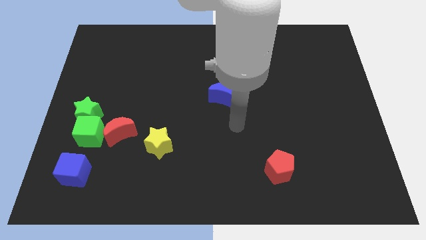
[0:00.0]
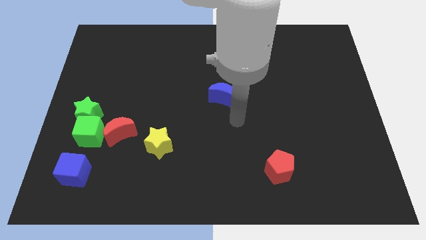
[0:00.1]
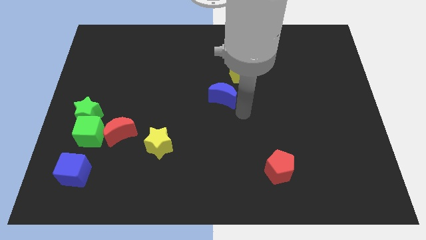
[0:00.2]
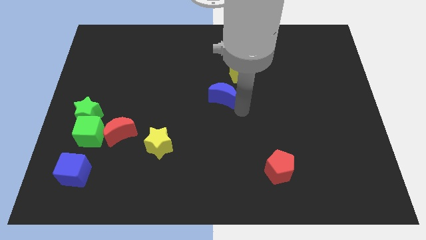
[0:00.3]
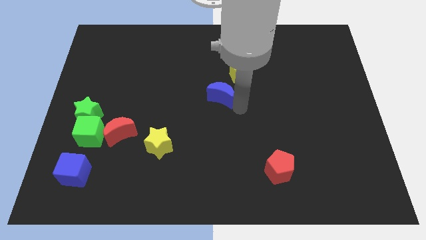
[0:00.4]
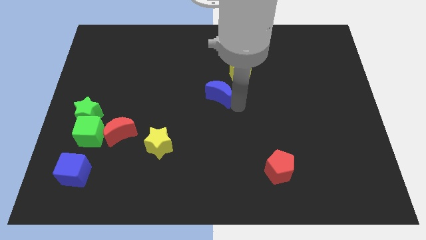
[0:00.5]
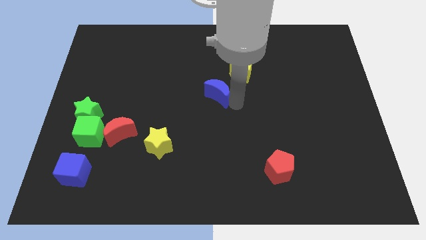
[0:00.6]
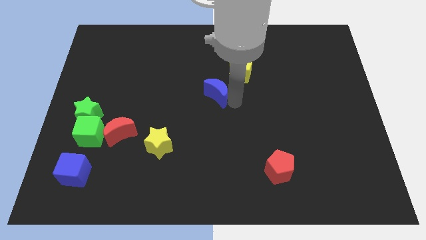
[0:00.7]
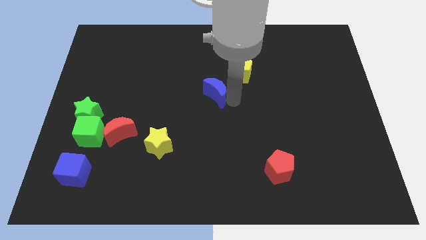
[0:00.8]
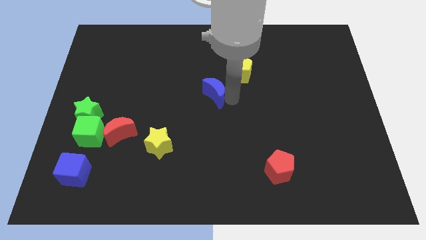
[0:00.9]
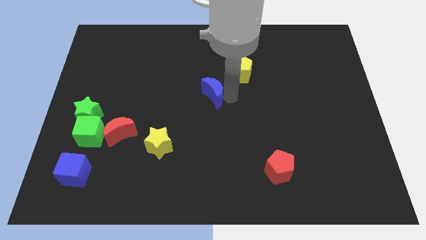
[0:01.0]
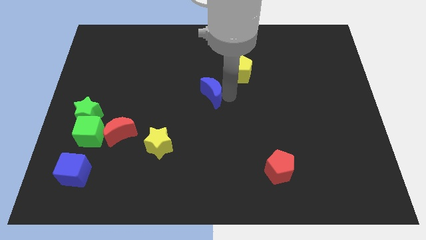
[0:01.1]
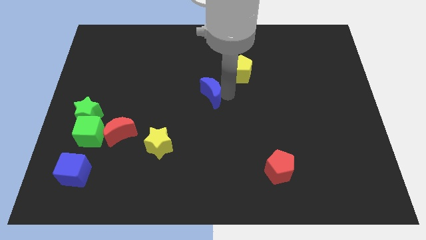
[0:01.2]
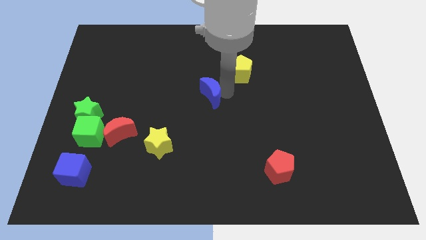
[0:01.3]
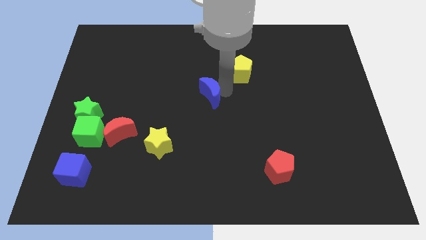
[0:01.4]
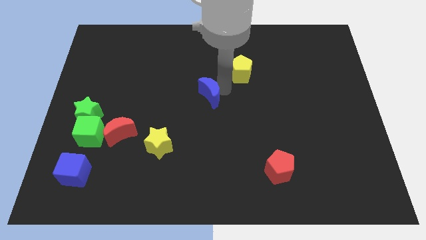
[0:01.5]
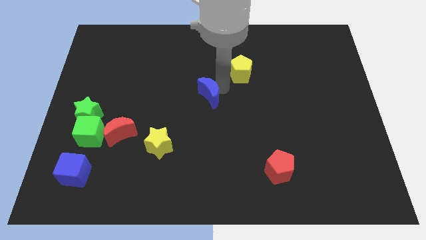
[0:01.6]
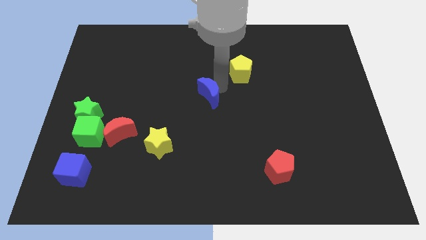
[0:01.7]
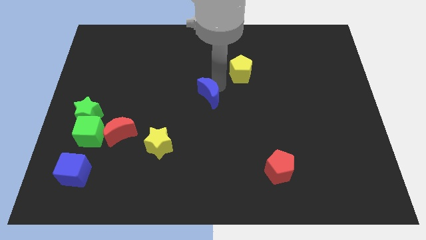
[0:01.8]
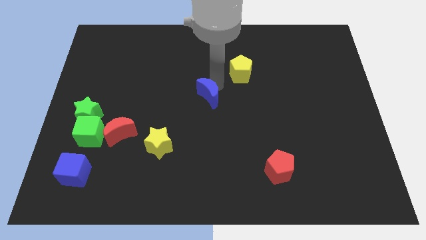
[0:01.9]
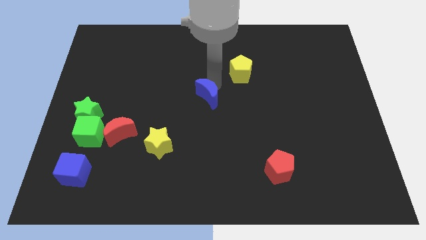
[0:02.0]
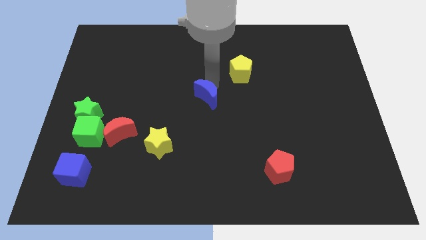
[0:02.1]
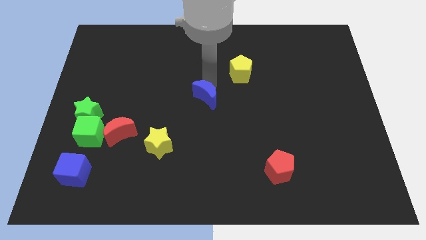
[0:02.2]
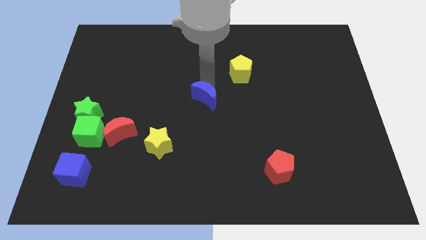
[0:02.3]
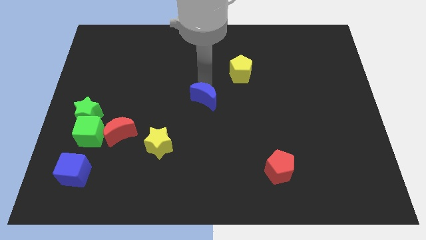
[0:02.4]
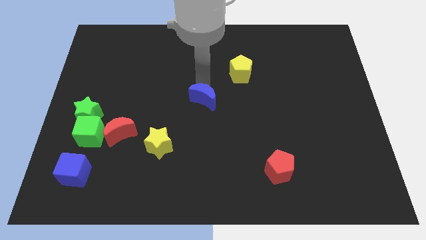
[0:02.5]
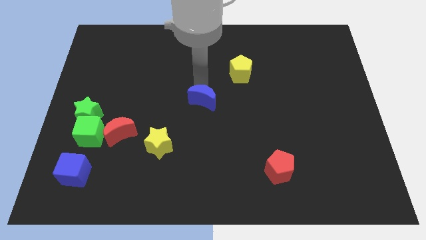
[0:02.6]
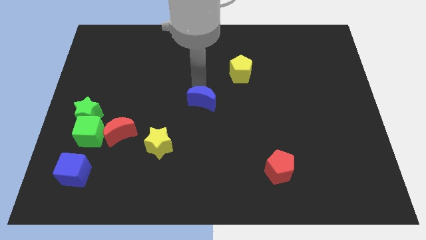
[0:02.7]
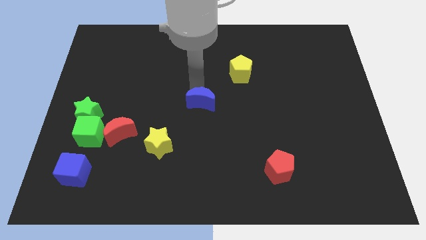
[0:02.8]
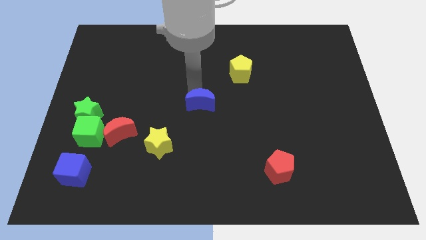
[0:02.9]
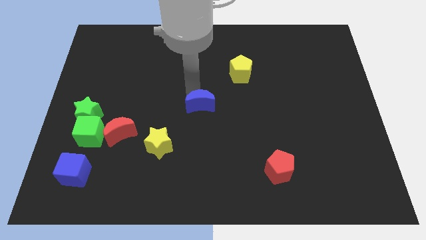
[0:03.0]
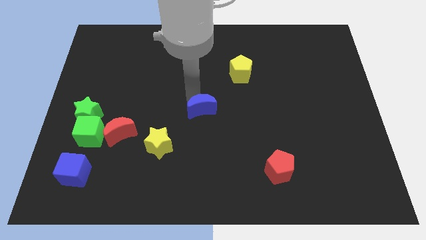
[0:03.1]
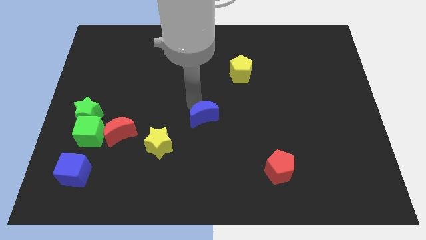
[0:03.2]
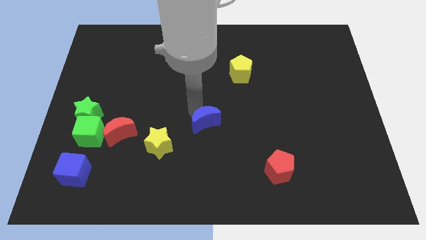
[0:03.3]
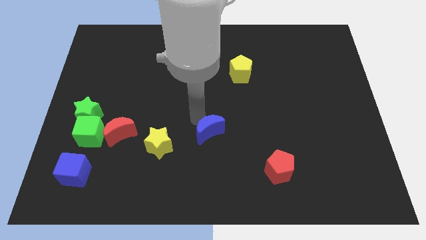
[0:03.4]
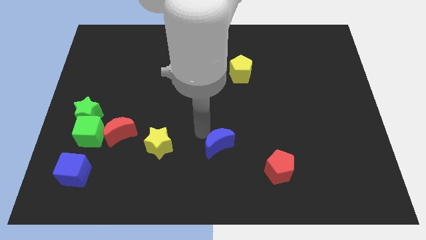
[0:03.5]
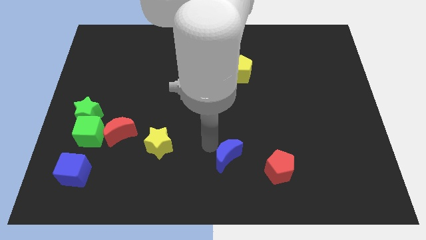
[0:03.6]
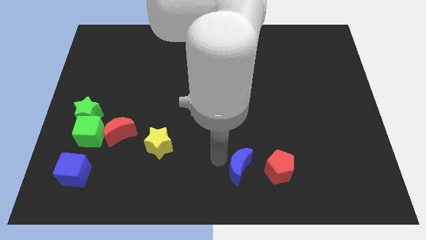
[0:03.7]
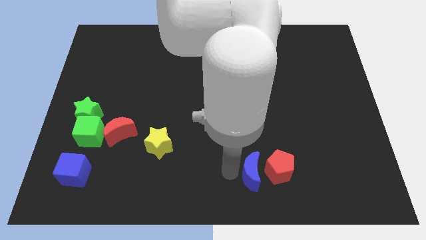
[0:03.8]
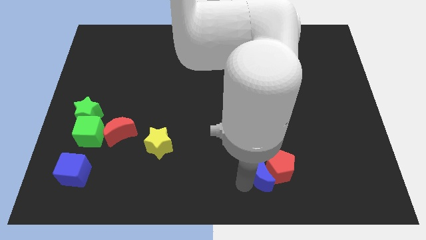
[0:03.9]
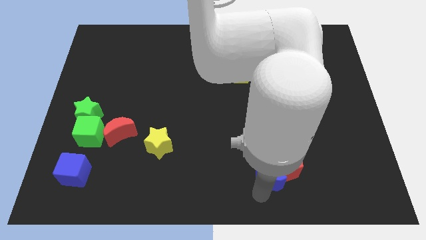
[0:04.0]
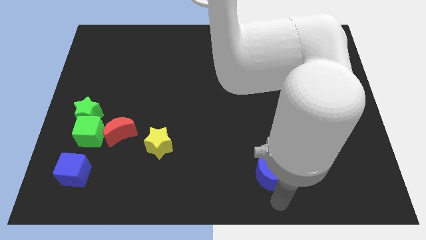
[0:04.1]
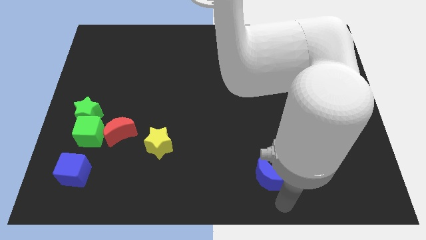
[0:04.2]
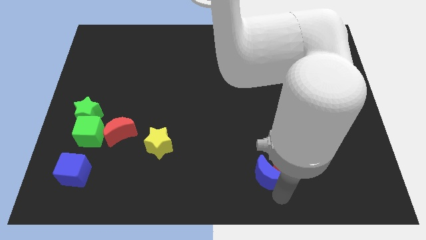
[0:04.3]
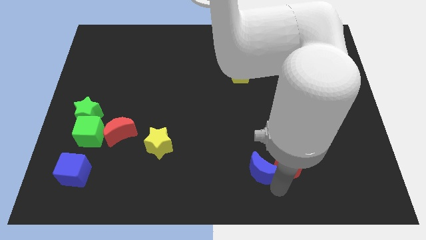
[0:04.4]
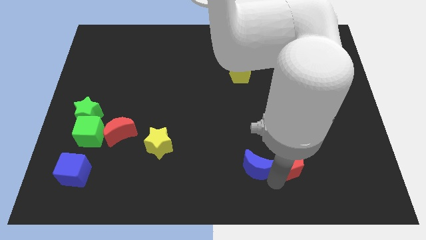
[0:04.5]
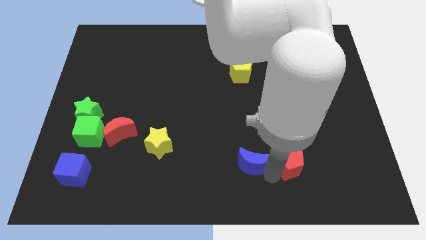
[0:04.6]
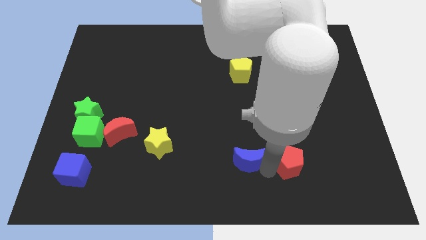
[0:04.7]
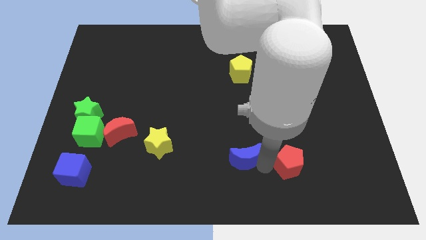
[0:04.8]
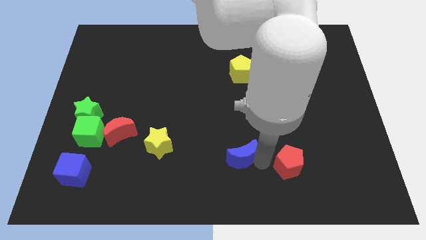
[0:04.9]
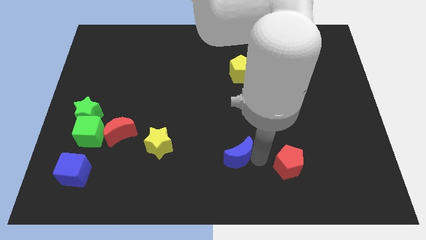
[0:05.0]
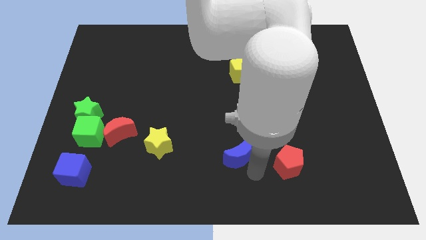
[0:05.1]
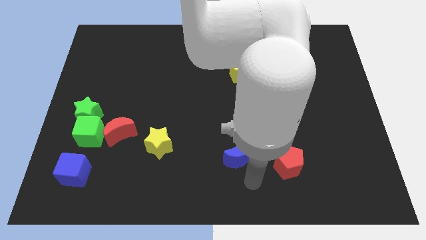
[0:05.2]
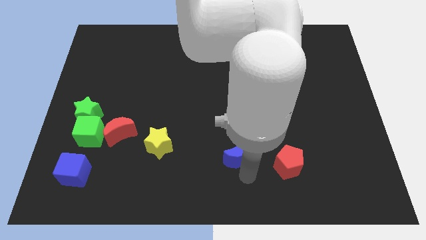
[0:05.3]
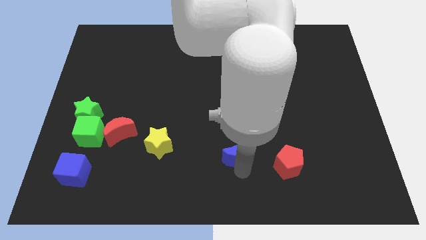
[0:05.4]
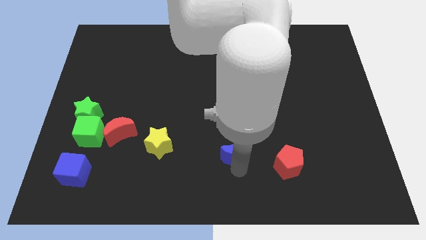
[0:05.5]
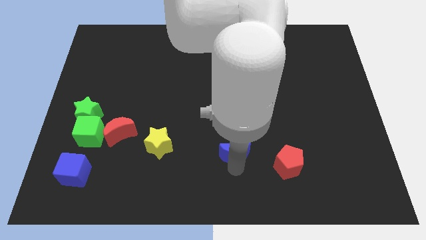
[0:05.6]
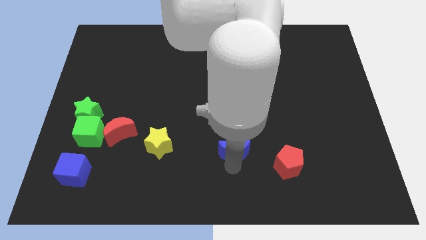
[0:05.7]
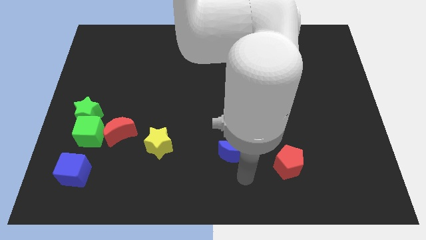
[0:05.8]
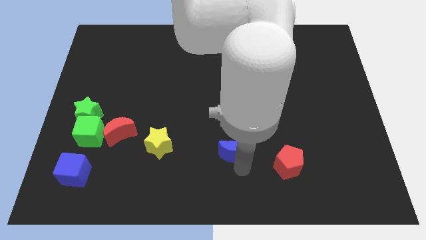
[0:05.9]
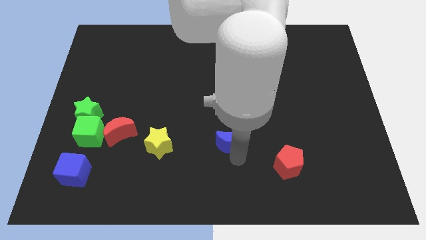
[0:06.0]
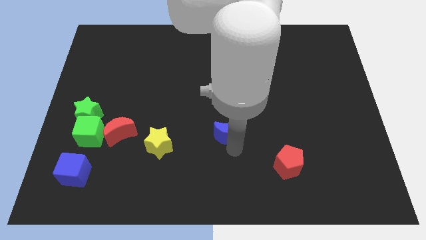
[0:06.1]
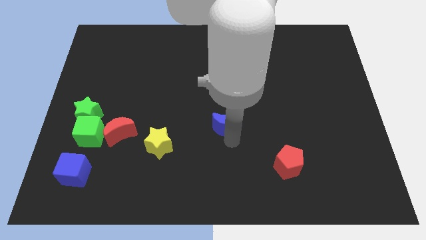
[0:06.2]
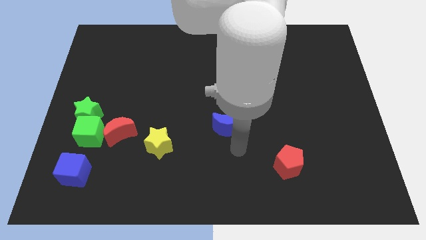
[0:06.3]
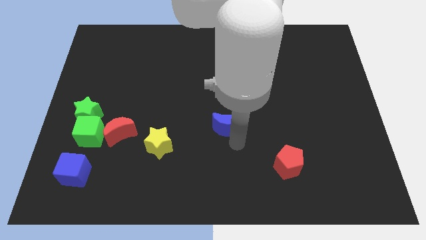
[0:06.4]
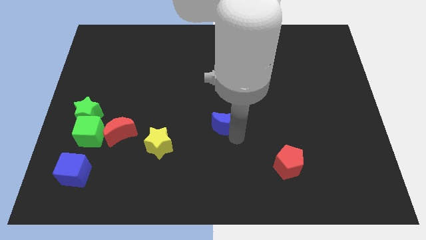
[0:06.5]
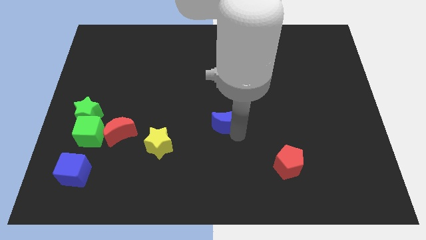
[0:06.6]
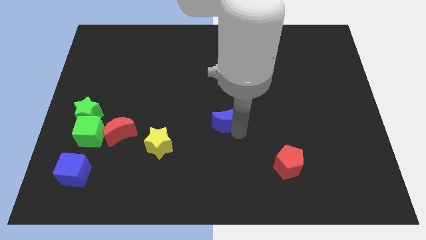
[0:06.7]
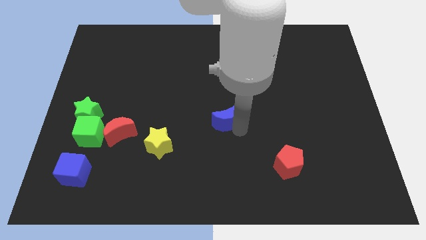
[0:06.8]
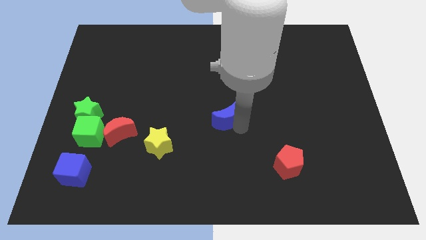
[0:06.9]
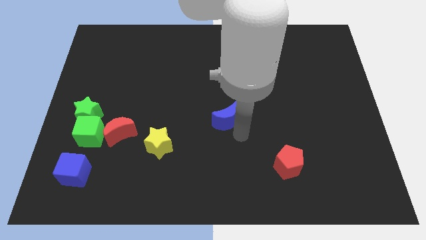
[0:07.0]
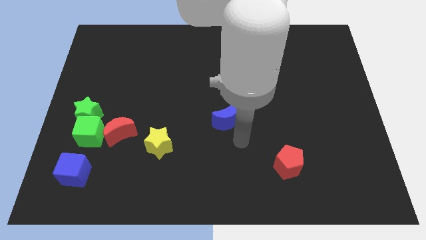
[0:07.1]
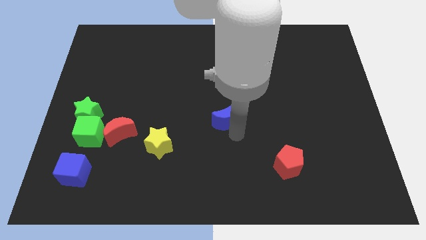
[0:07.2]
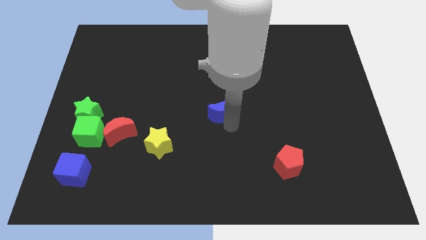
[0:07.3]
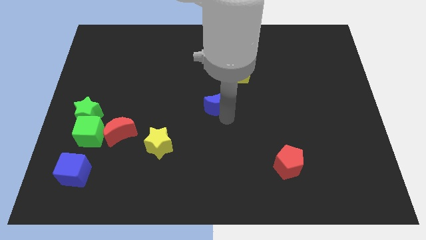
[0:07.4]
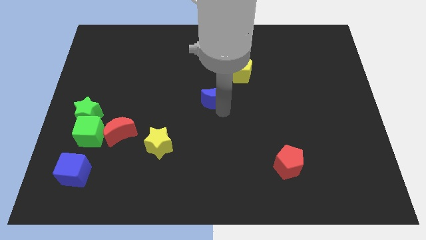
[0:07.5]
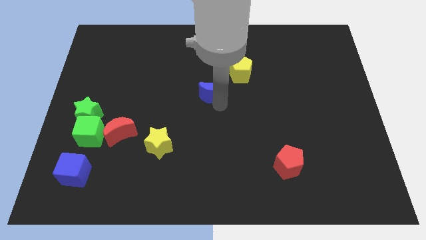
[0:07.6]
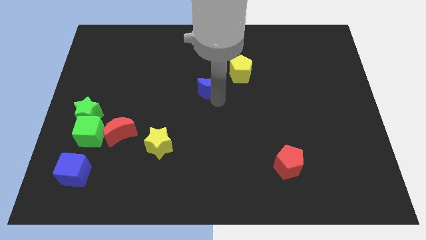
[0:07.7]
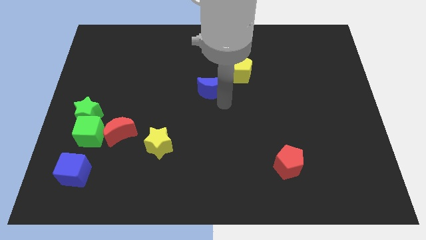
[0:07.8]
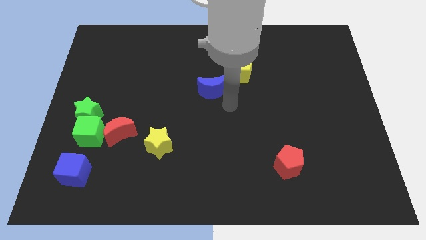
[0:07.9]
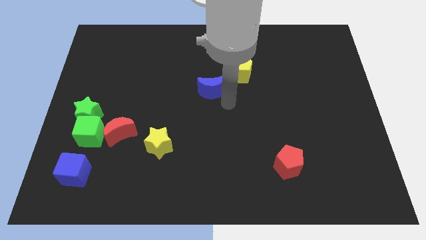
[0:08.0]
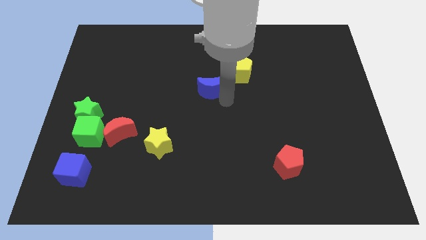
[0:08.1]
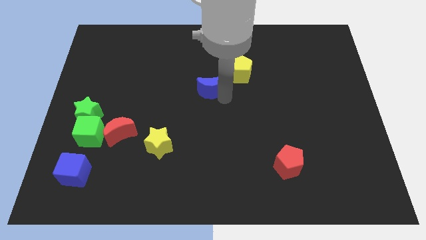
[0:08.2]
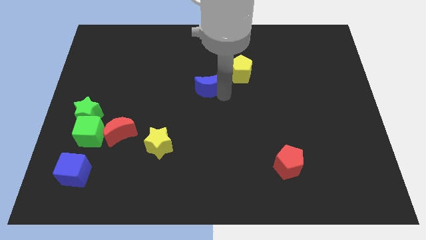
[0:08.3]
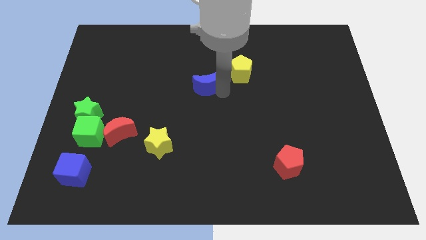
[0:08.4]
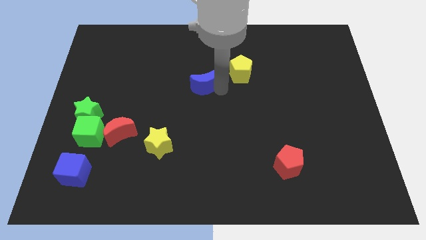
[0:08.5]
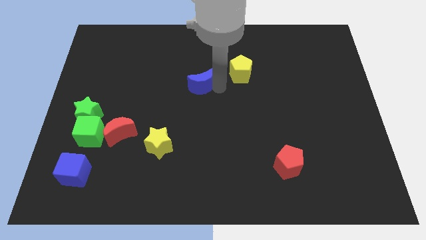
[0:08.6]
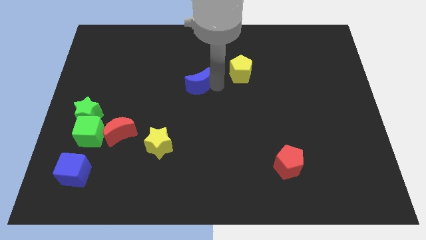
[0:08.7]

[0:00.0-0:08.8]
push the blue moon a little up and then left
